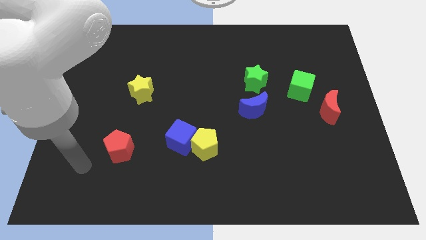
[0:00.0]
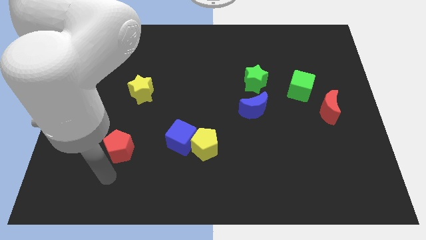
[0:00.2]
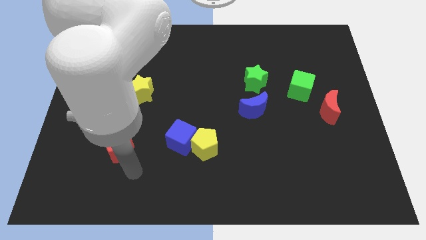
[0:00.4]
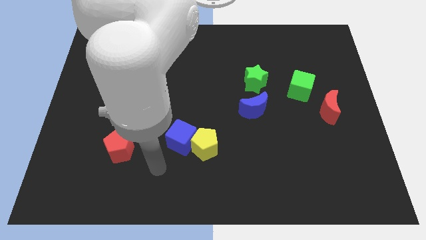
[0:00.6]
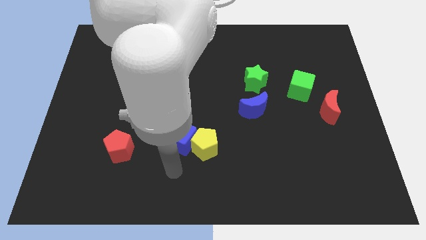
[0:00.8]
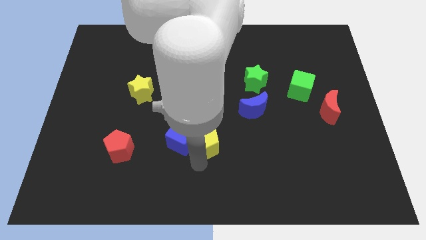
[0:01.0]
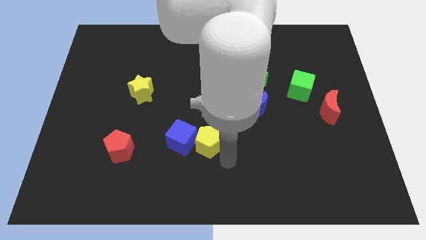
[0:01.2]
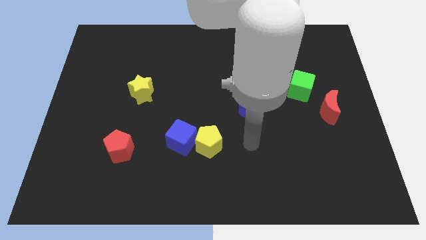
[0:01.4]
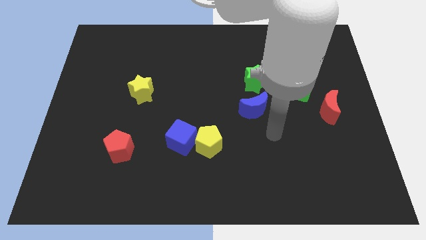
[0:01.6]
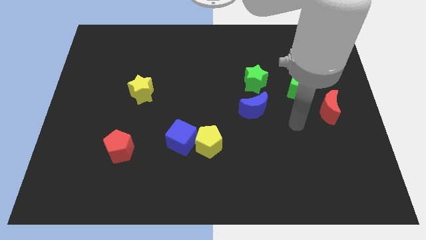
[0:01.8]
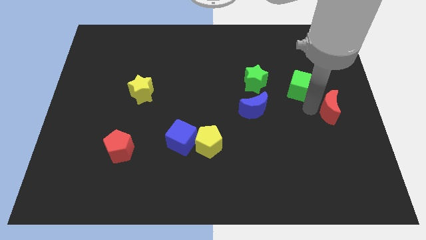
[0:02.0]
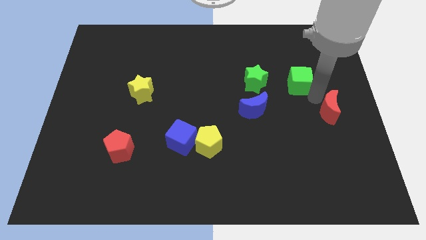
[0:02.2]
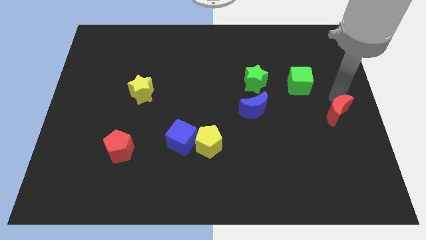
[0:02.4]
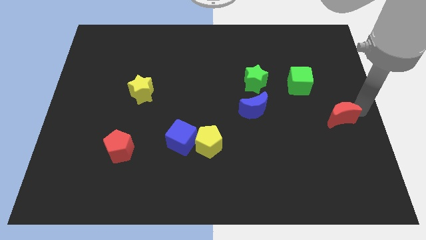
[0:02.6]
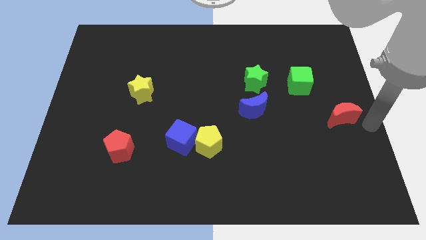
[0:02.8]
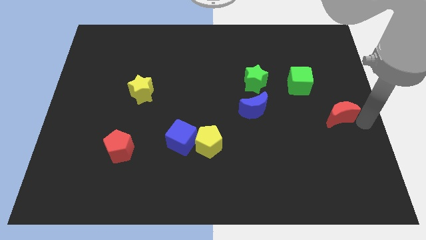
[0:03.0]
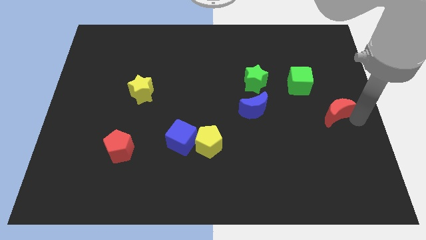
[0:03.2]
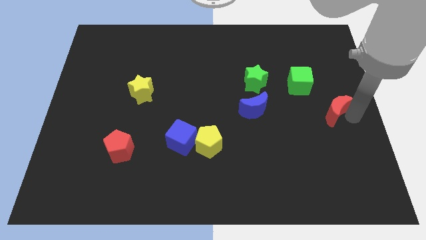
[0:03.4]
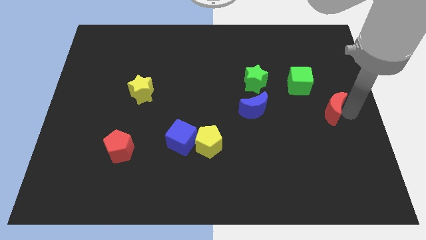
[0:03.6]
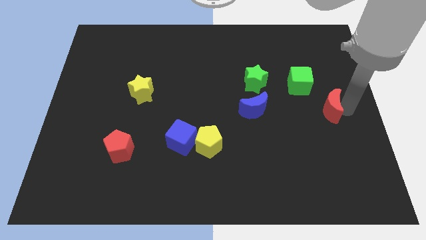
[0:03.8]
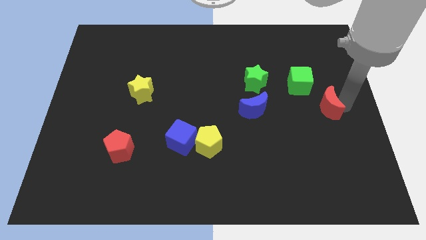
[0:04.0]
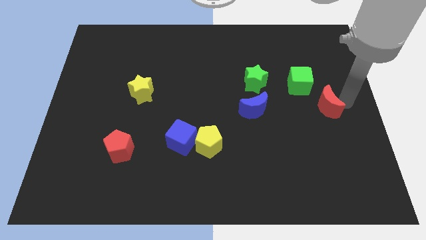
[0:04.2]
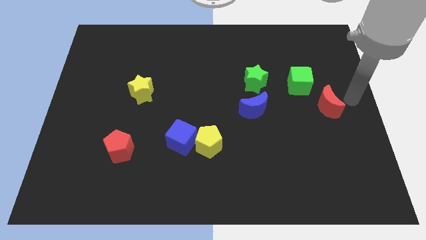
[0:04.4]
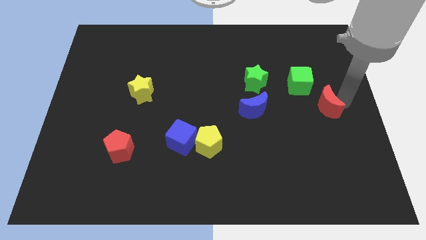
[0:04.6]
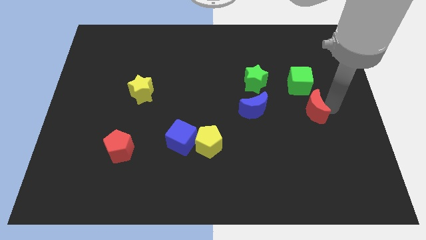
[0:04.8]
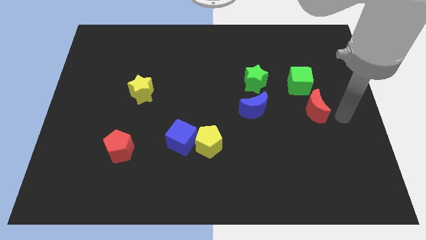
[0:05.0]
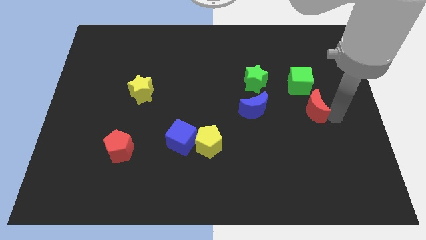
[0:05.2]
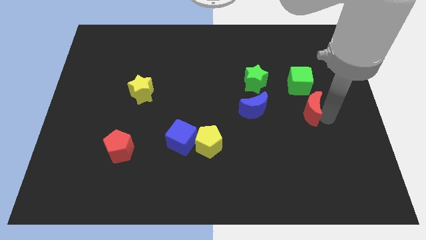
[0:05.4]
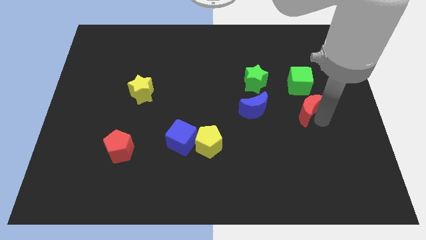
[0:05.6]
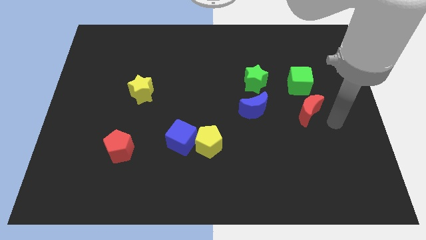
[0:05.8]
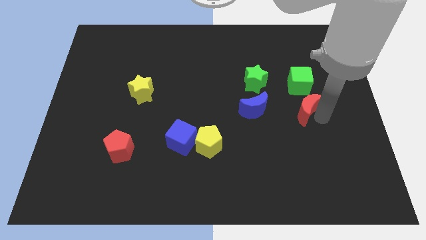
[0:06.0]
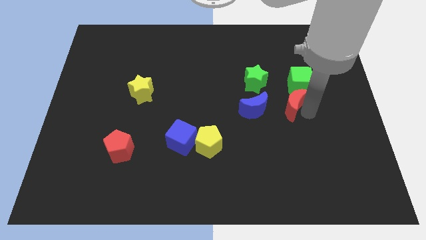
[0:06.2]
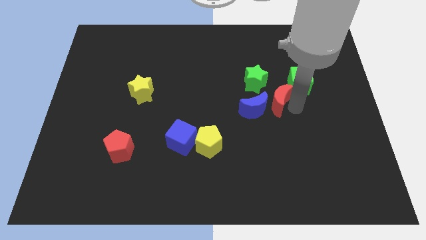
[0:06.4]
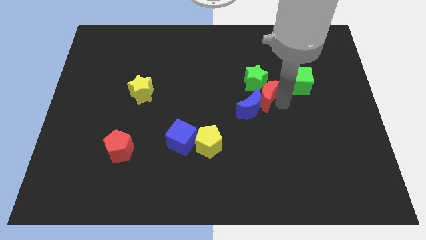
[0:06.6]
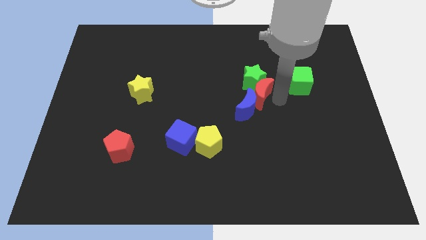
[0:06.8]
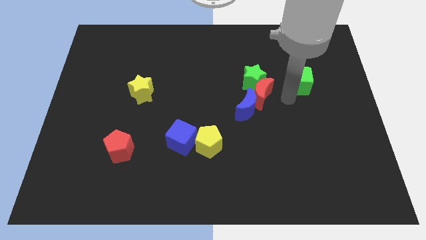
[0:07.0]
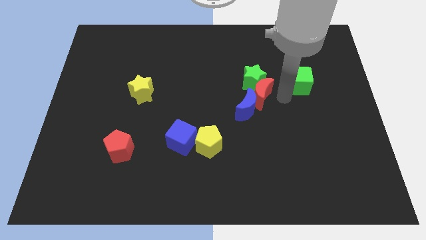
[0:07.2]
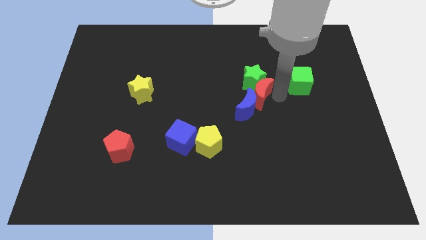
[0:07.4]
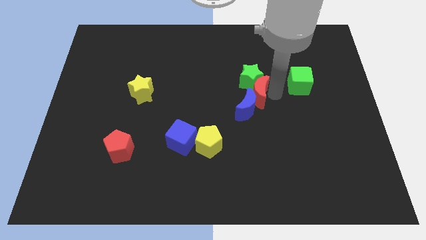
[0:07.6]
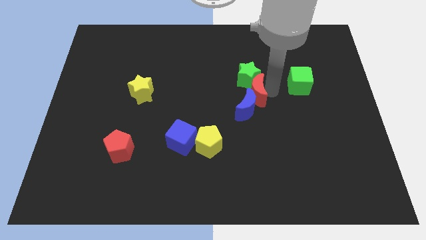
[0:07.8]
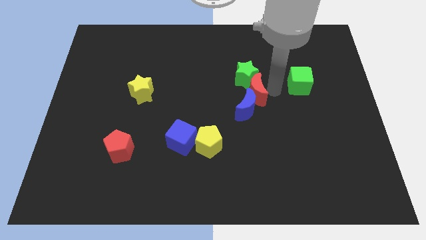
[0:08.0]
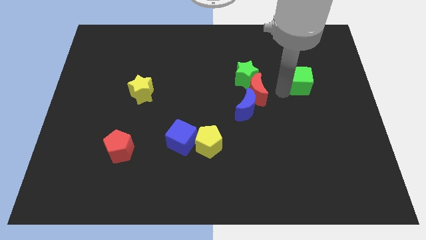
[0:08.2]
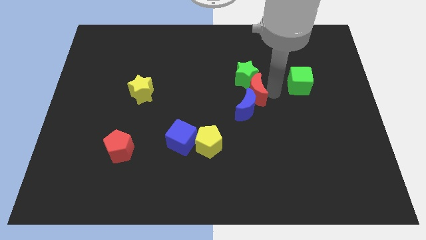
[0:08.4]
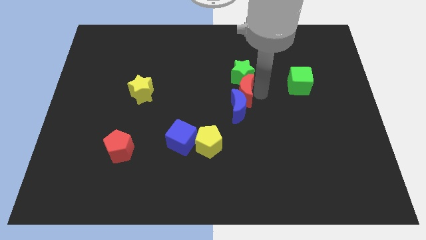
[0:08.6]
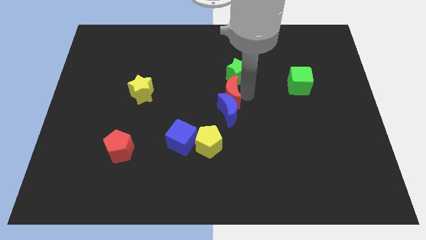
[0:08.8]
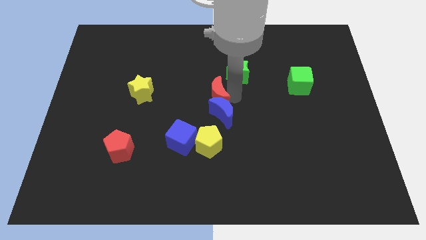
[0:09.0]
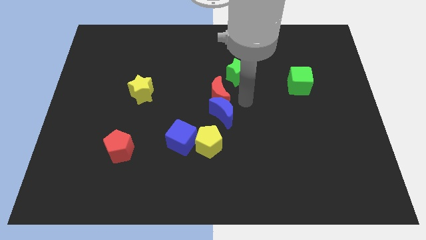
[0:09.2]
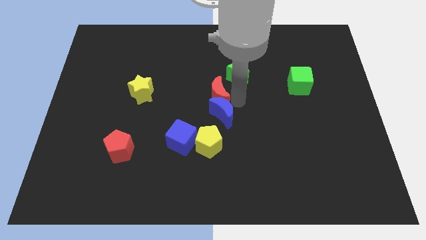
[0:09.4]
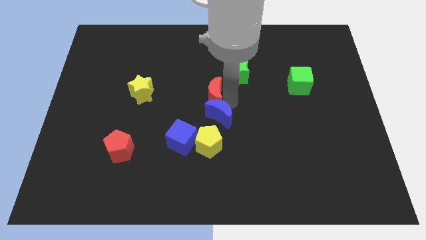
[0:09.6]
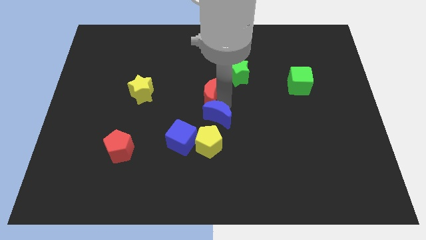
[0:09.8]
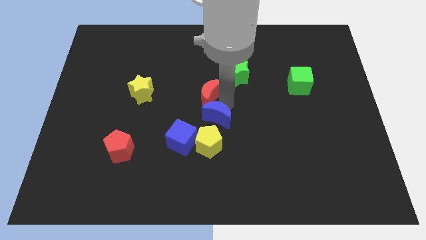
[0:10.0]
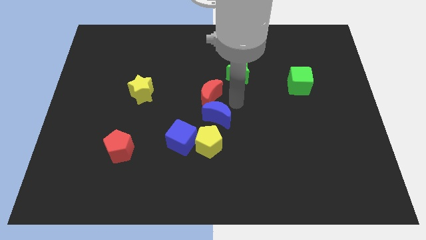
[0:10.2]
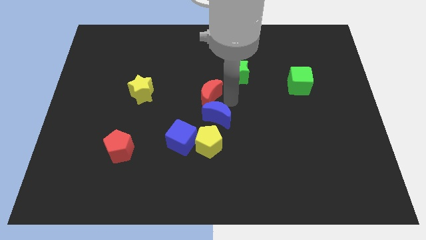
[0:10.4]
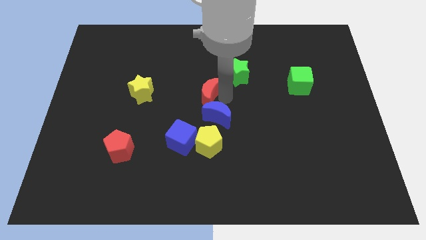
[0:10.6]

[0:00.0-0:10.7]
slide the red moon to the right of the yellow star

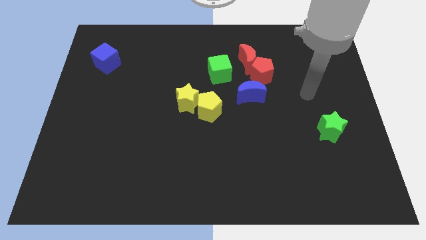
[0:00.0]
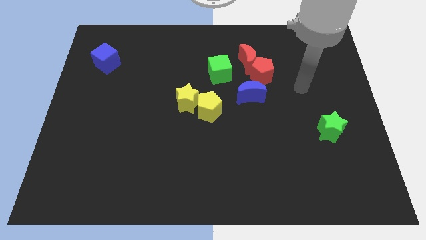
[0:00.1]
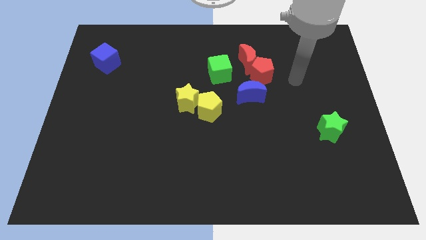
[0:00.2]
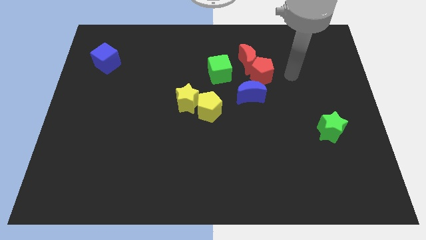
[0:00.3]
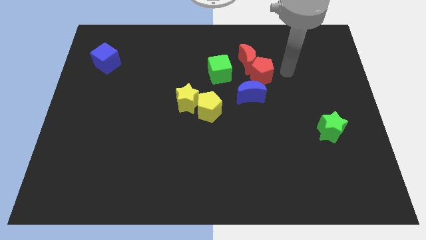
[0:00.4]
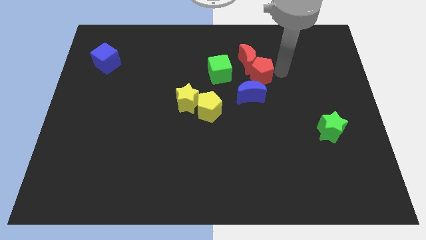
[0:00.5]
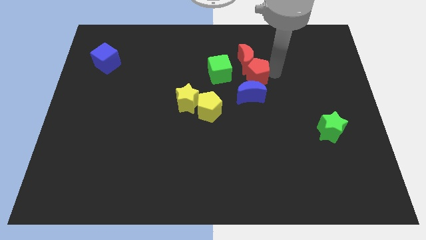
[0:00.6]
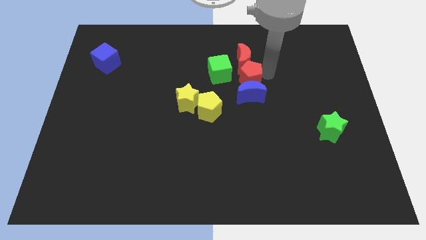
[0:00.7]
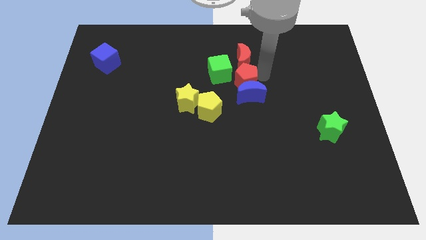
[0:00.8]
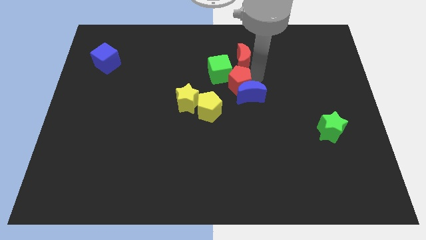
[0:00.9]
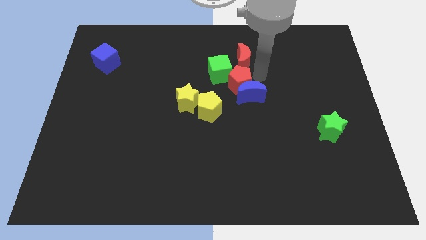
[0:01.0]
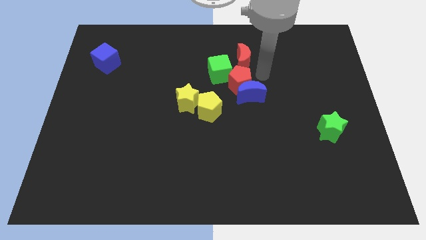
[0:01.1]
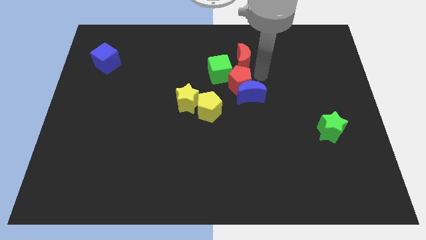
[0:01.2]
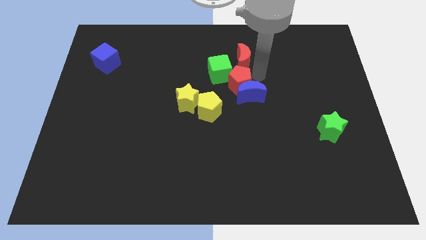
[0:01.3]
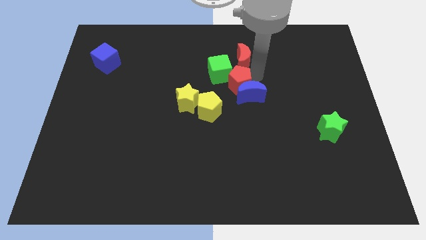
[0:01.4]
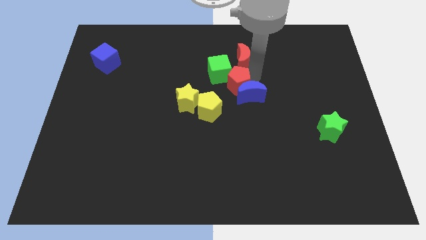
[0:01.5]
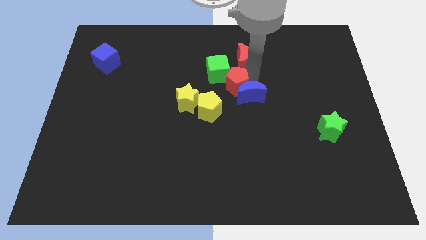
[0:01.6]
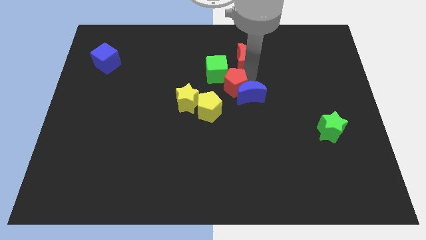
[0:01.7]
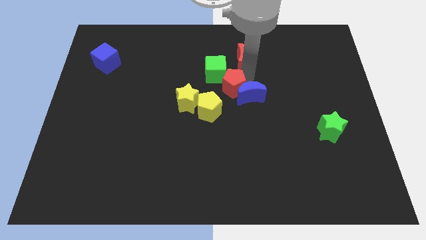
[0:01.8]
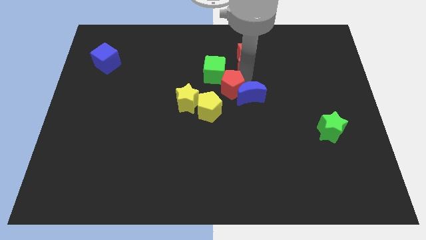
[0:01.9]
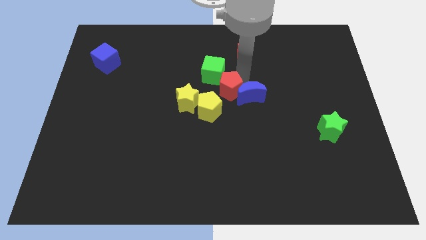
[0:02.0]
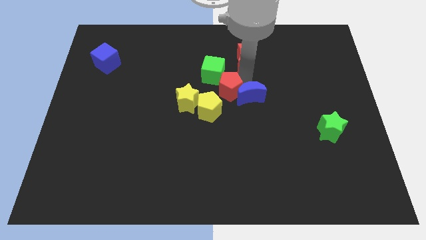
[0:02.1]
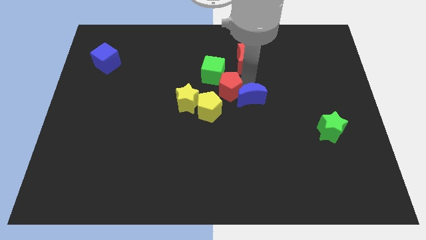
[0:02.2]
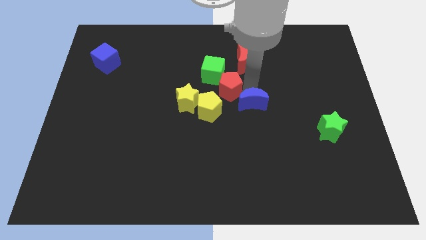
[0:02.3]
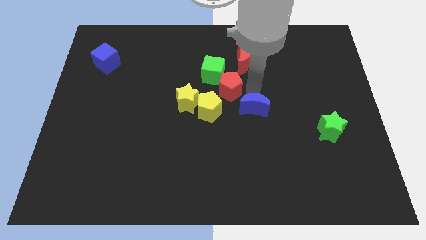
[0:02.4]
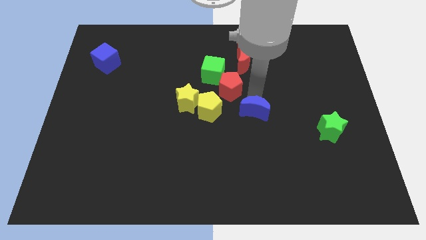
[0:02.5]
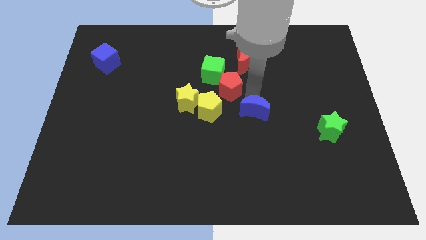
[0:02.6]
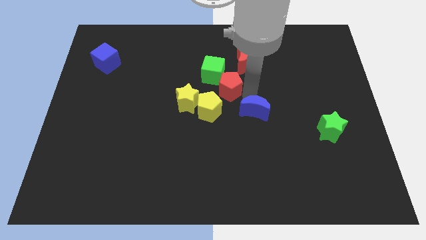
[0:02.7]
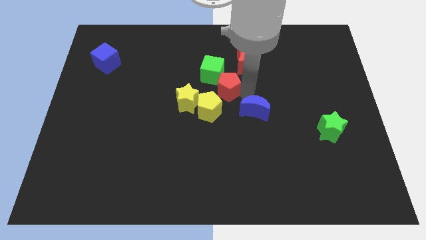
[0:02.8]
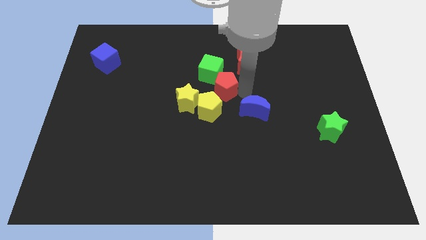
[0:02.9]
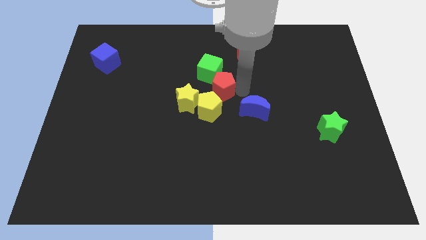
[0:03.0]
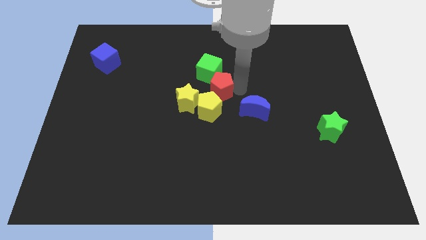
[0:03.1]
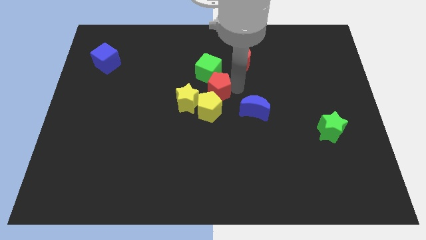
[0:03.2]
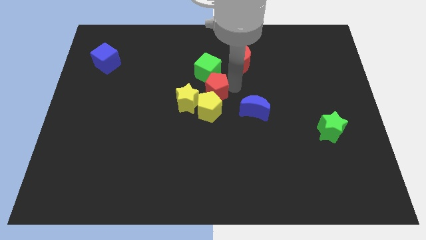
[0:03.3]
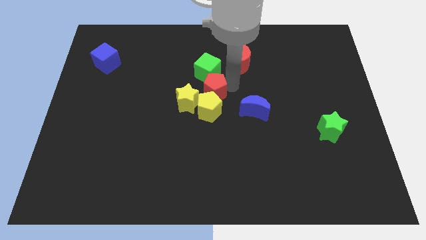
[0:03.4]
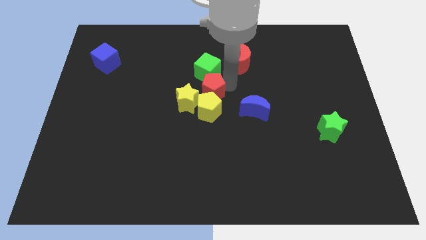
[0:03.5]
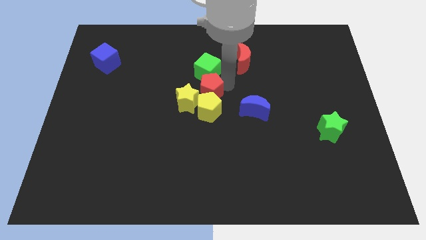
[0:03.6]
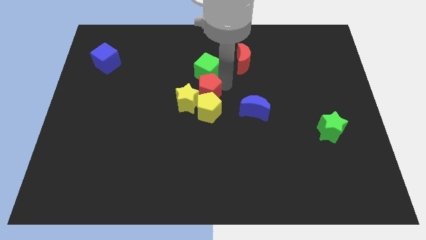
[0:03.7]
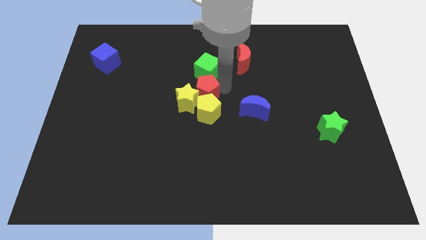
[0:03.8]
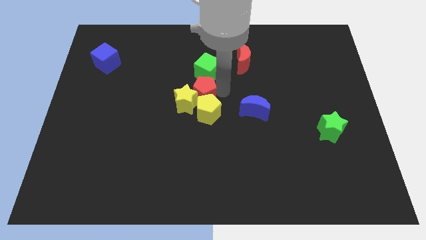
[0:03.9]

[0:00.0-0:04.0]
move the red pentagon above the yellow star
